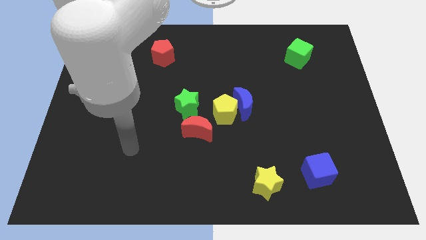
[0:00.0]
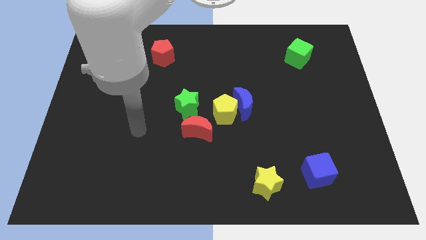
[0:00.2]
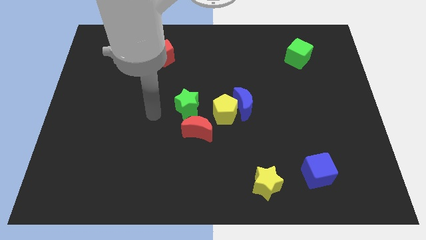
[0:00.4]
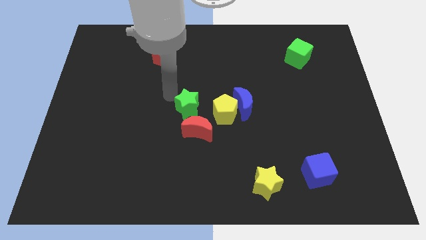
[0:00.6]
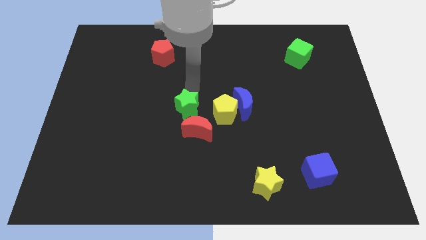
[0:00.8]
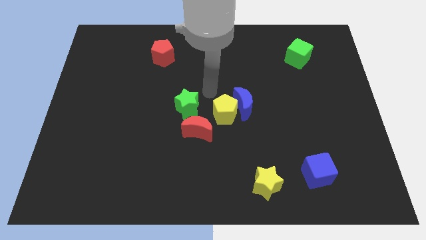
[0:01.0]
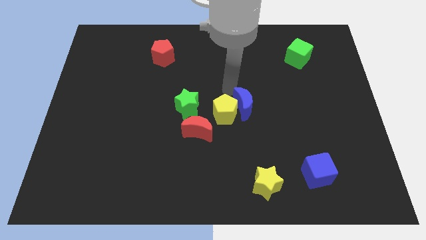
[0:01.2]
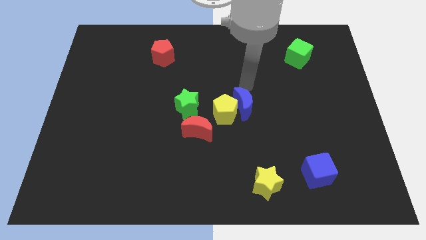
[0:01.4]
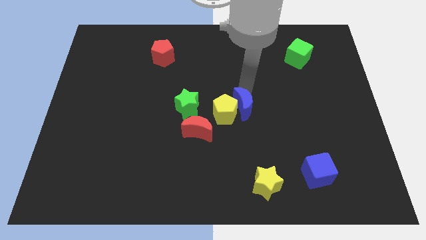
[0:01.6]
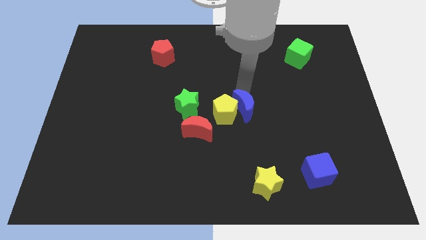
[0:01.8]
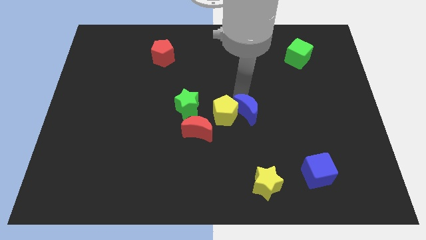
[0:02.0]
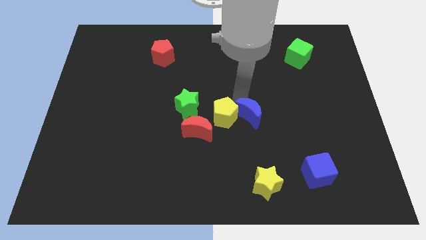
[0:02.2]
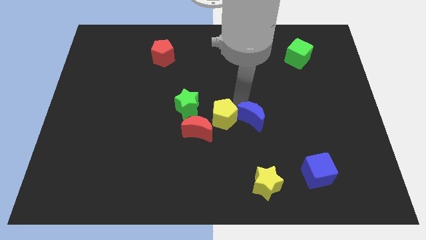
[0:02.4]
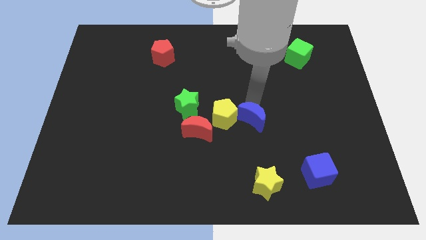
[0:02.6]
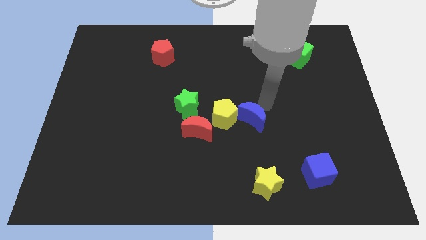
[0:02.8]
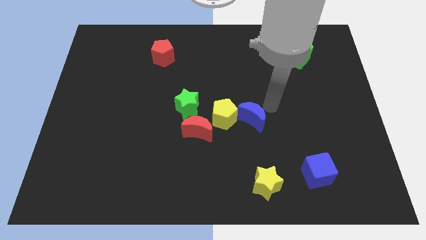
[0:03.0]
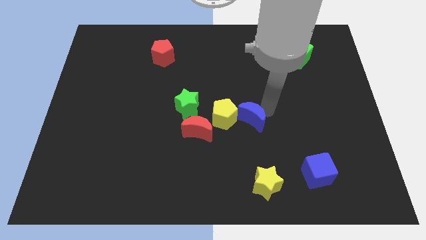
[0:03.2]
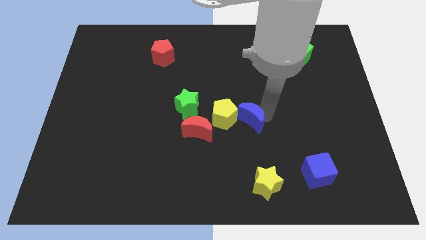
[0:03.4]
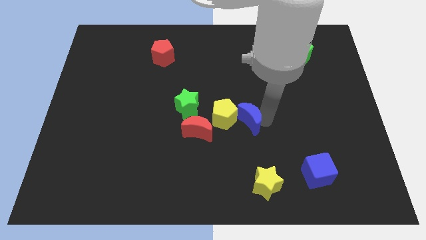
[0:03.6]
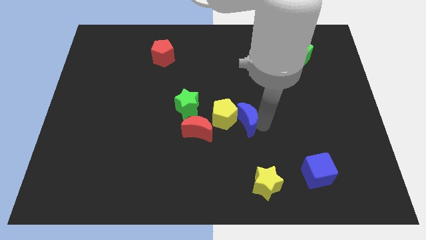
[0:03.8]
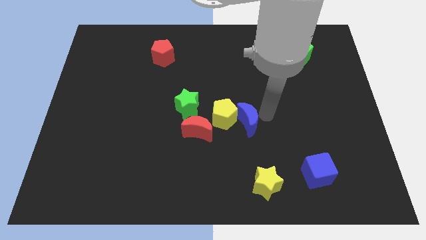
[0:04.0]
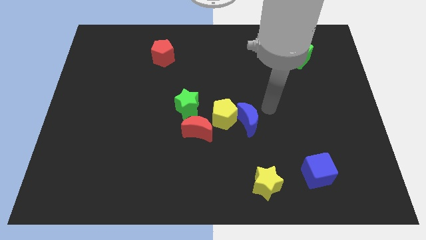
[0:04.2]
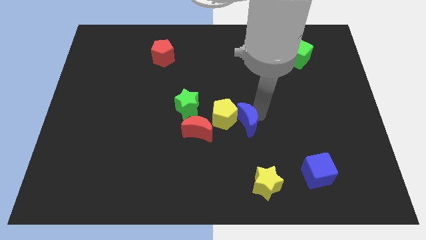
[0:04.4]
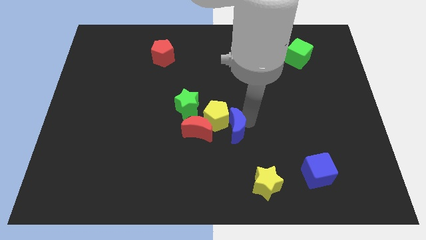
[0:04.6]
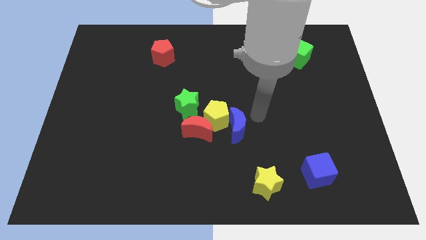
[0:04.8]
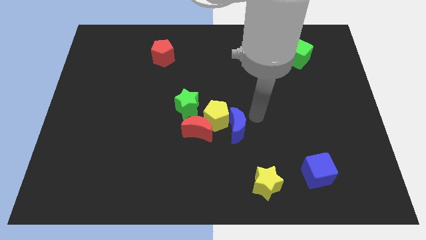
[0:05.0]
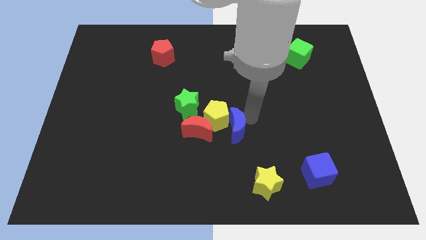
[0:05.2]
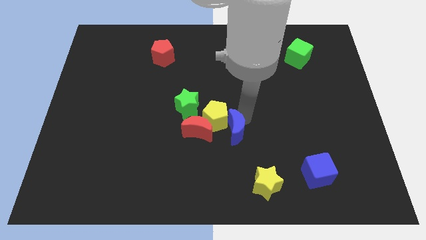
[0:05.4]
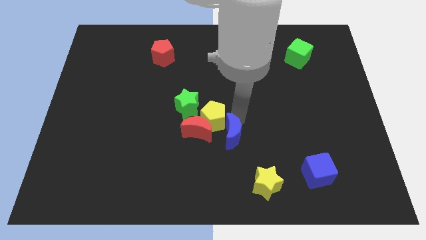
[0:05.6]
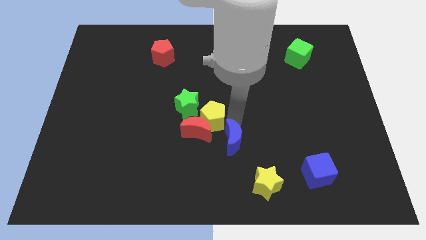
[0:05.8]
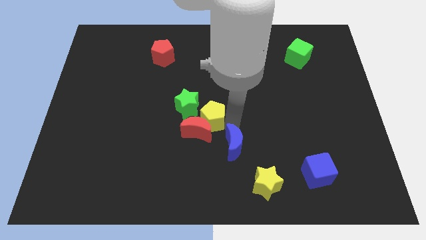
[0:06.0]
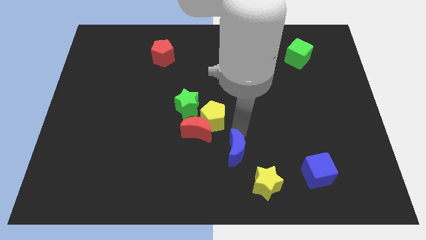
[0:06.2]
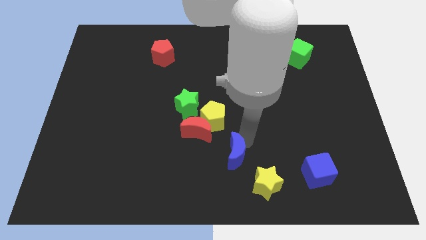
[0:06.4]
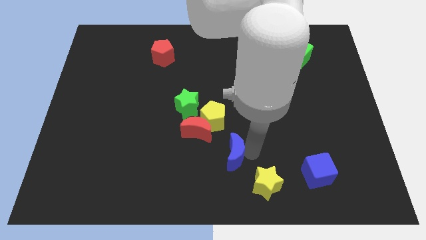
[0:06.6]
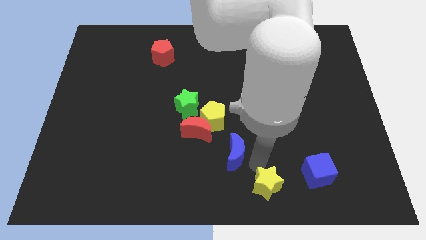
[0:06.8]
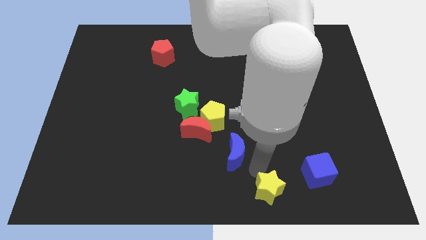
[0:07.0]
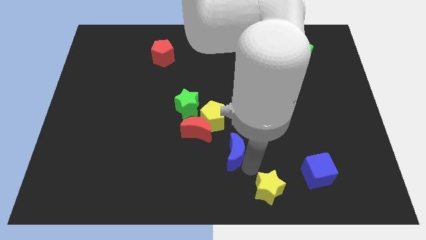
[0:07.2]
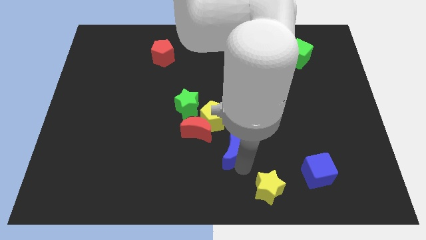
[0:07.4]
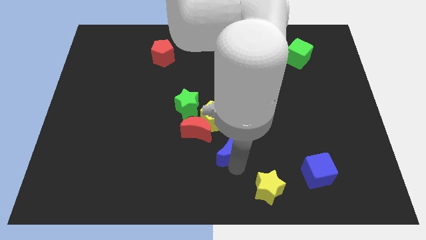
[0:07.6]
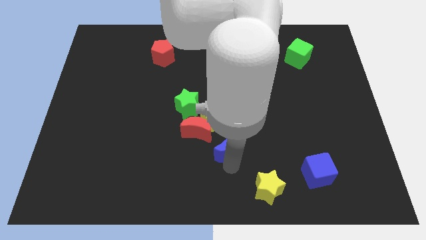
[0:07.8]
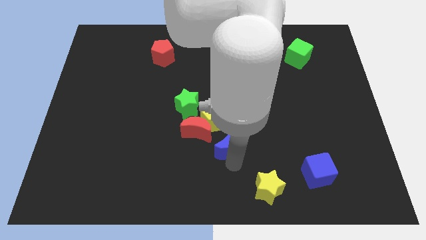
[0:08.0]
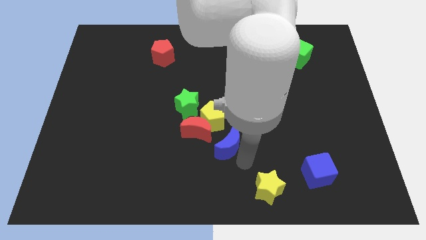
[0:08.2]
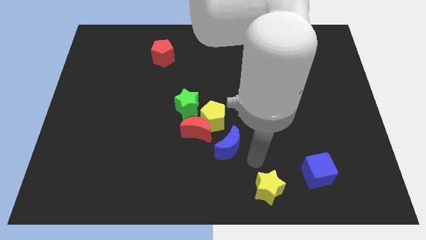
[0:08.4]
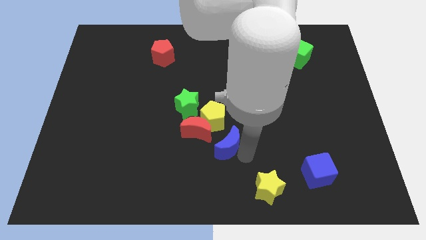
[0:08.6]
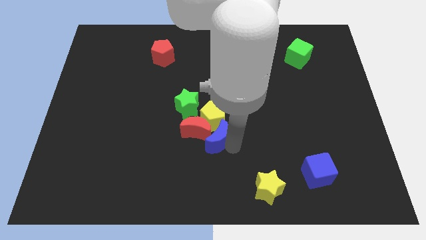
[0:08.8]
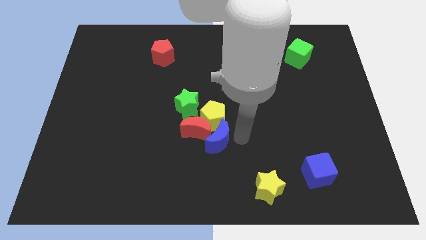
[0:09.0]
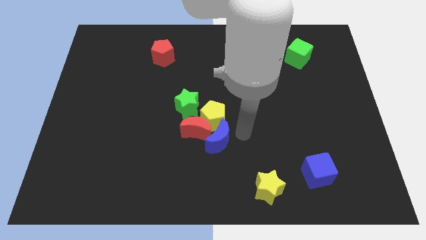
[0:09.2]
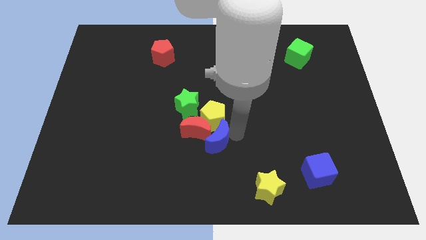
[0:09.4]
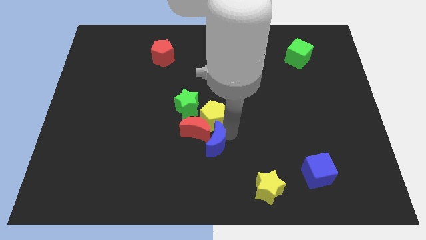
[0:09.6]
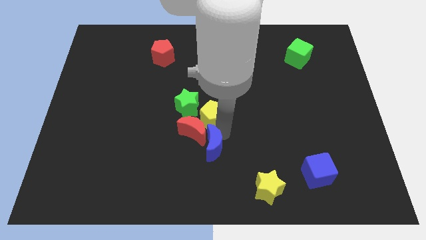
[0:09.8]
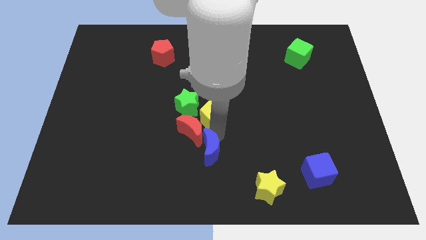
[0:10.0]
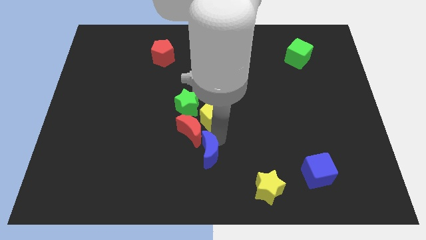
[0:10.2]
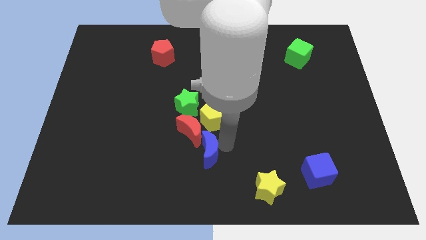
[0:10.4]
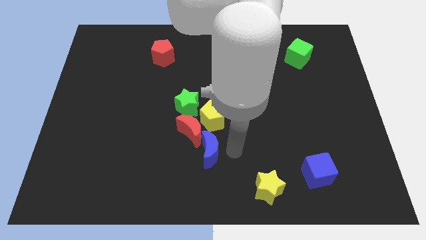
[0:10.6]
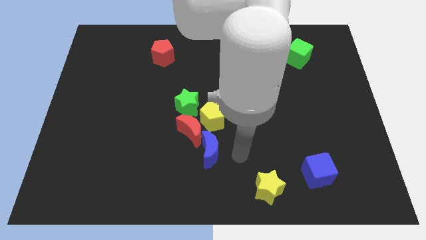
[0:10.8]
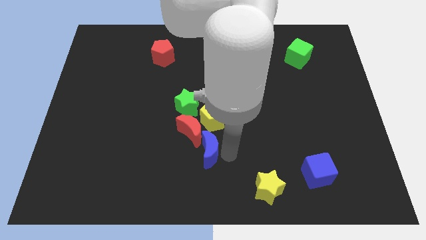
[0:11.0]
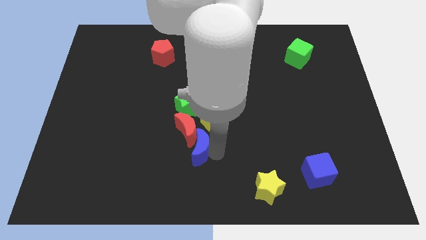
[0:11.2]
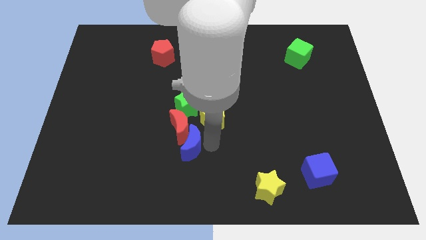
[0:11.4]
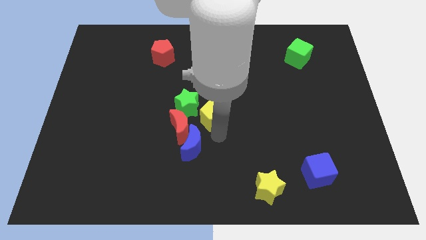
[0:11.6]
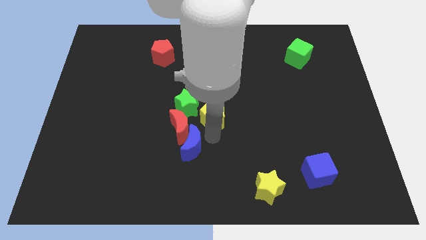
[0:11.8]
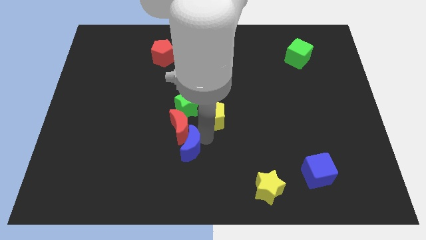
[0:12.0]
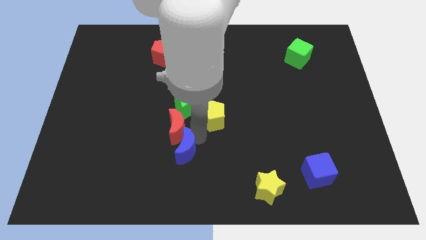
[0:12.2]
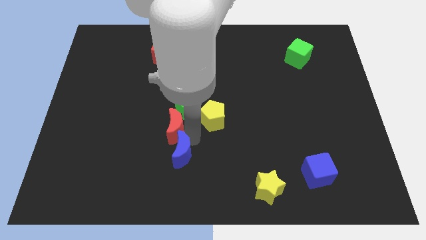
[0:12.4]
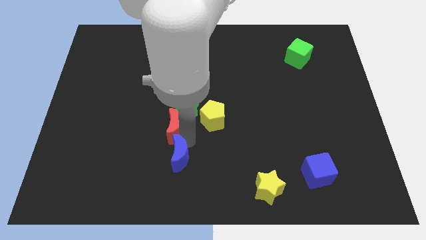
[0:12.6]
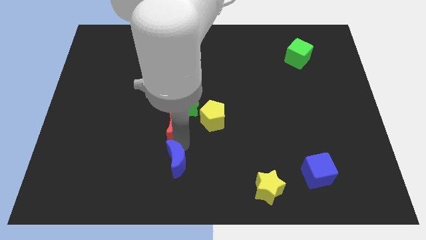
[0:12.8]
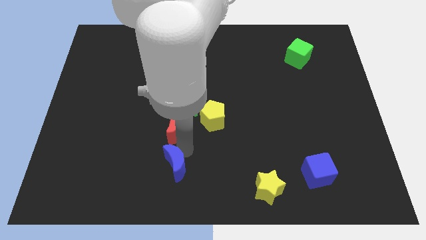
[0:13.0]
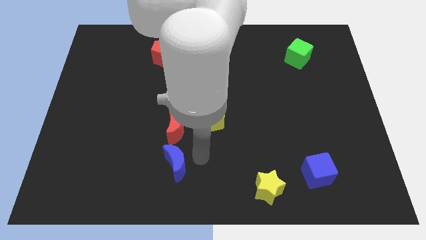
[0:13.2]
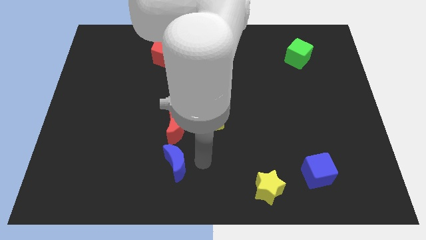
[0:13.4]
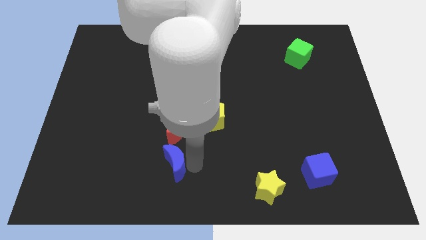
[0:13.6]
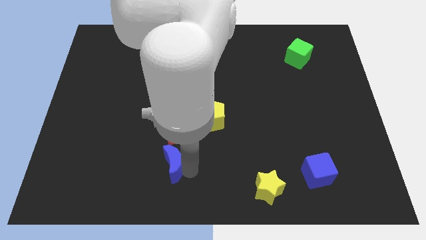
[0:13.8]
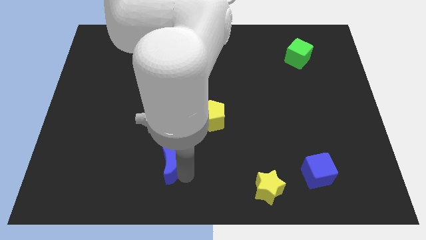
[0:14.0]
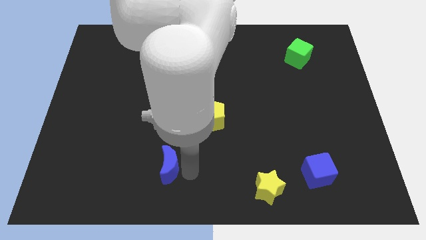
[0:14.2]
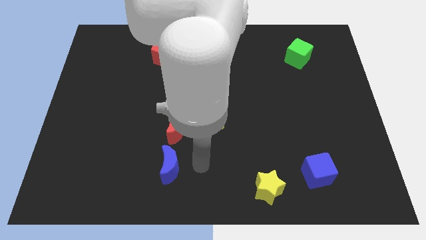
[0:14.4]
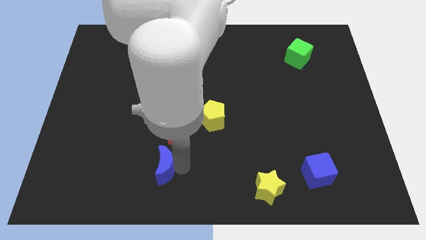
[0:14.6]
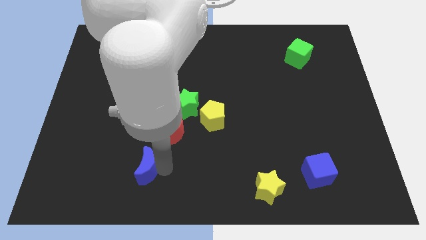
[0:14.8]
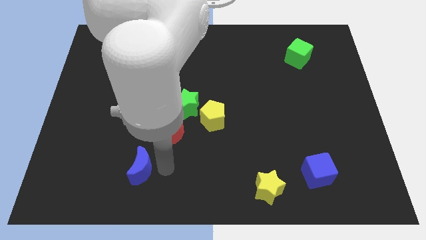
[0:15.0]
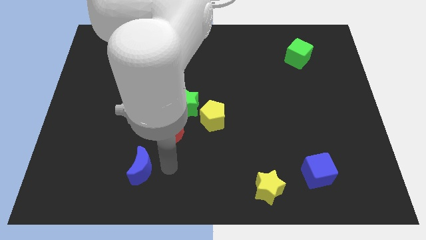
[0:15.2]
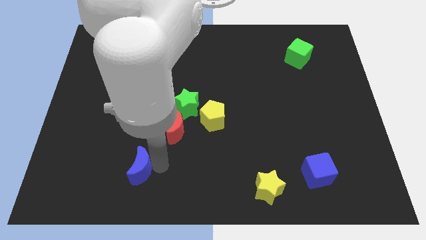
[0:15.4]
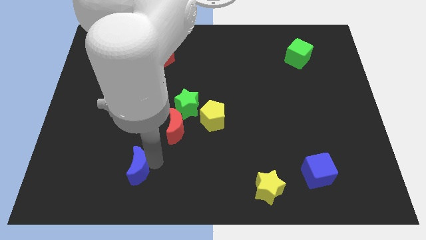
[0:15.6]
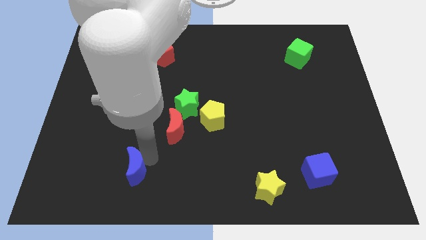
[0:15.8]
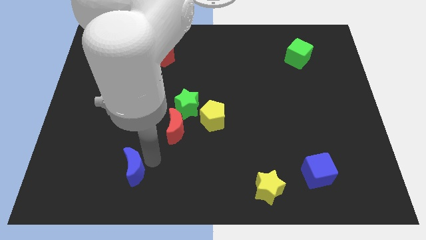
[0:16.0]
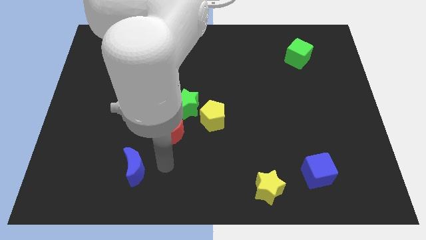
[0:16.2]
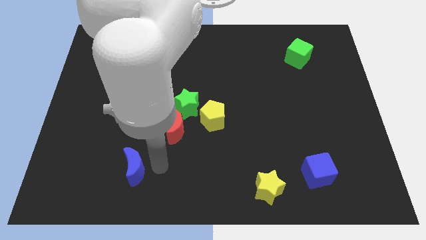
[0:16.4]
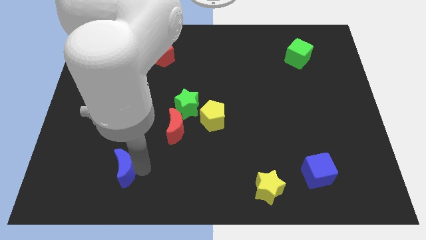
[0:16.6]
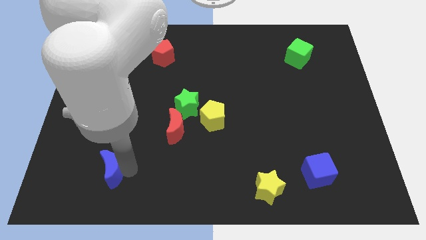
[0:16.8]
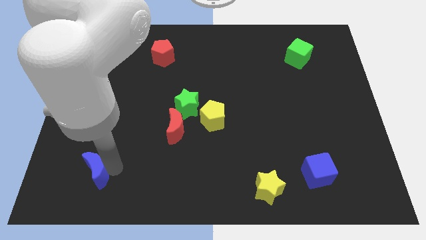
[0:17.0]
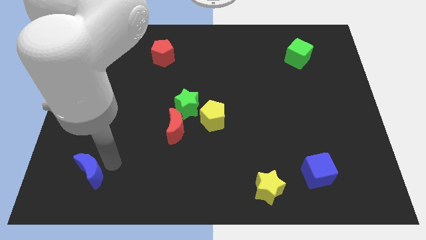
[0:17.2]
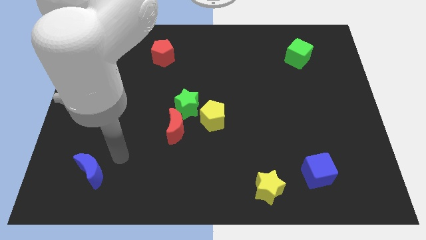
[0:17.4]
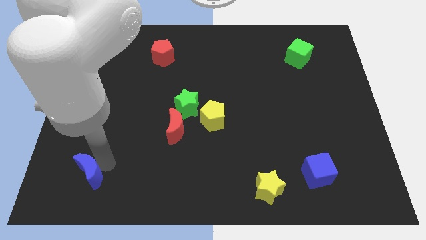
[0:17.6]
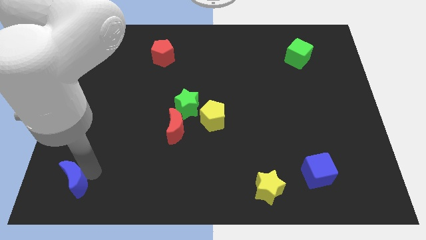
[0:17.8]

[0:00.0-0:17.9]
slide the blue moon to the bottom left
